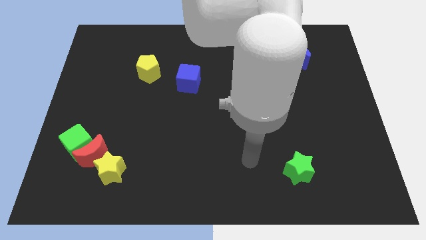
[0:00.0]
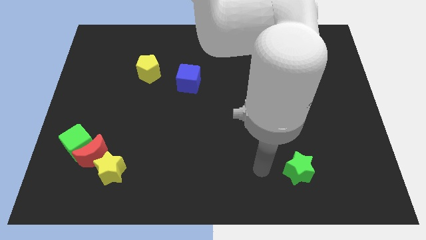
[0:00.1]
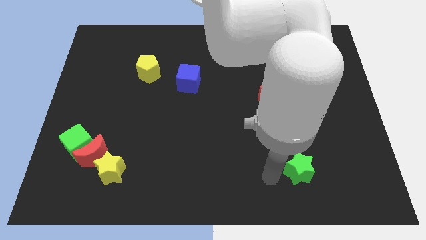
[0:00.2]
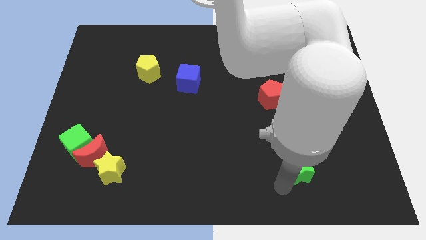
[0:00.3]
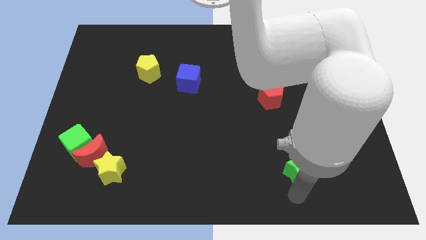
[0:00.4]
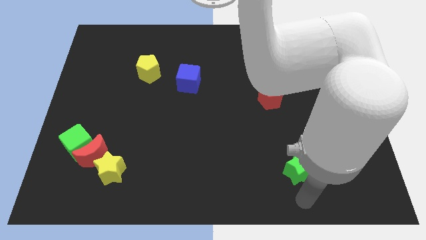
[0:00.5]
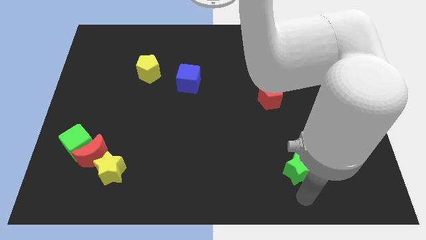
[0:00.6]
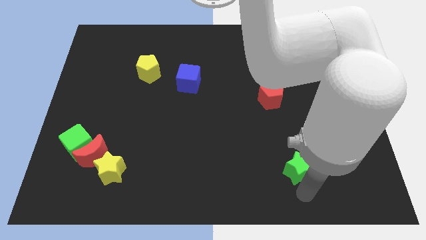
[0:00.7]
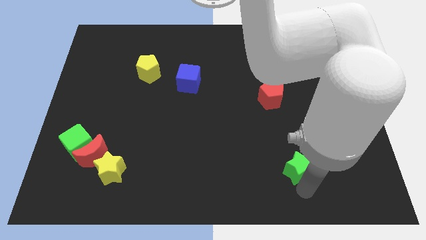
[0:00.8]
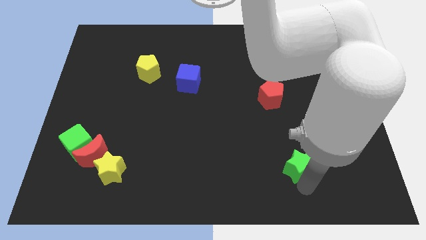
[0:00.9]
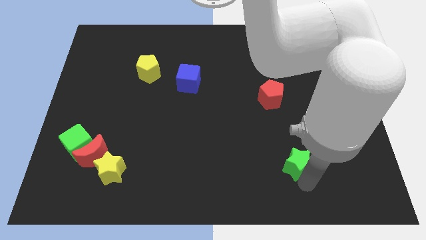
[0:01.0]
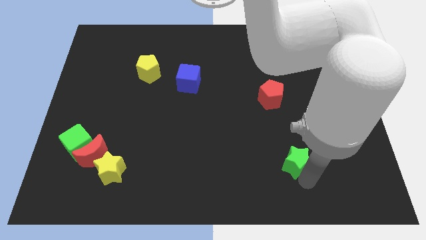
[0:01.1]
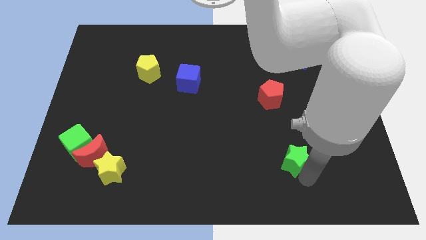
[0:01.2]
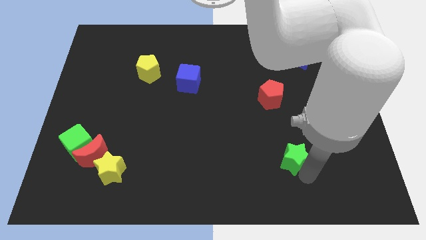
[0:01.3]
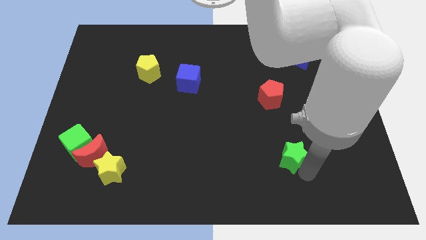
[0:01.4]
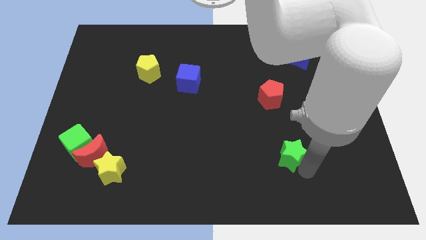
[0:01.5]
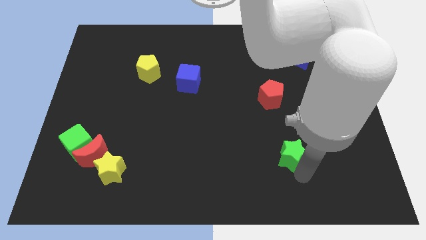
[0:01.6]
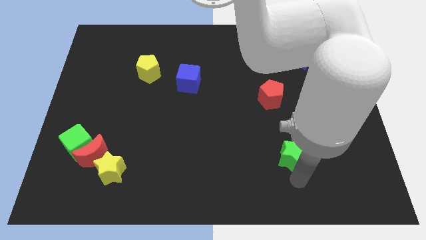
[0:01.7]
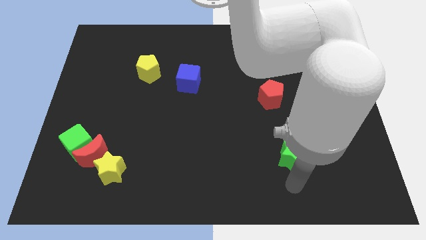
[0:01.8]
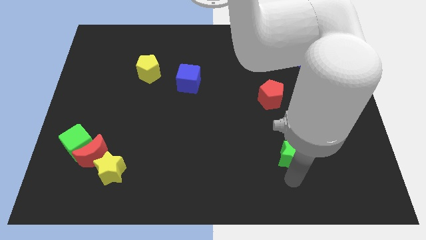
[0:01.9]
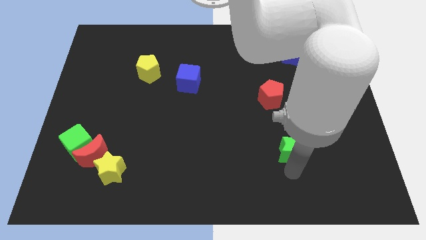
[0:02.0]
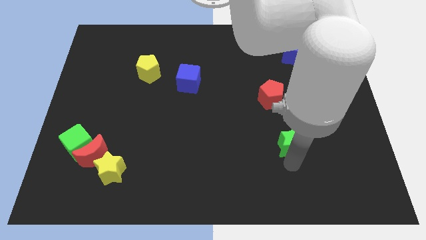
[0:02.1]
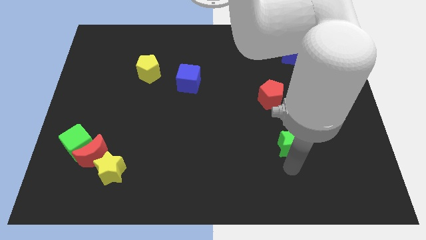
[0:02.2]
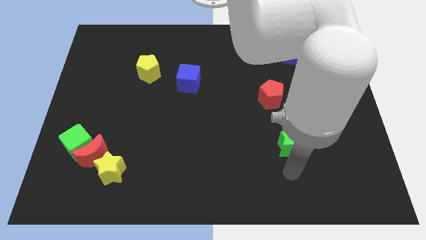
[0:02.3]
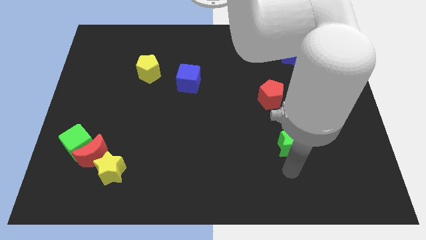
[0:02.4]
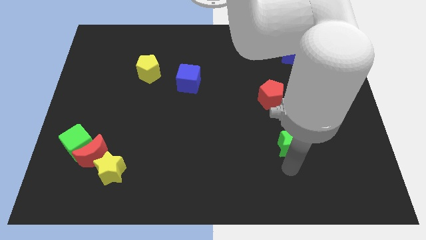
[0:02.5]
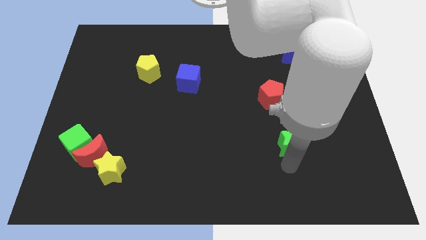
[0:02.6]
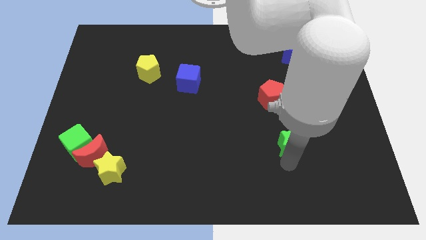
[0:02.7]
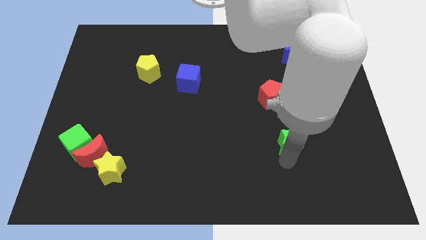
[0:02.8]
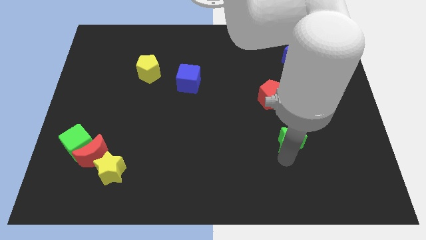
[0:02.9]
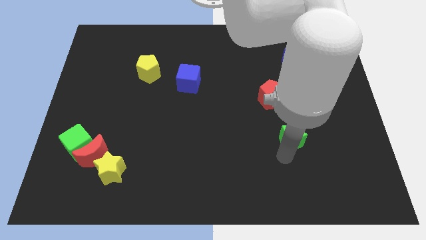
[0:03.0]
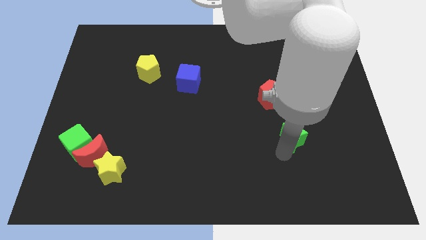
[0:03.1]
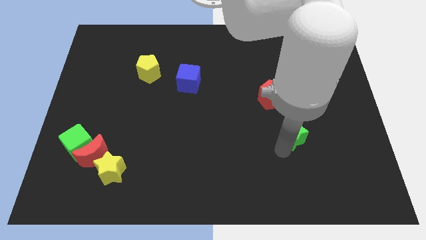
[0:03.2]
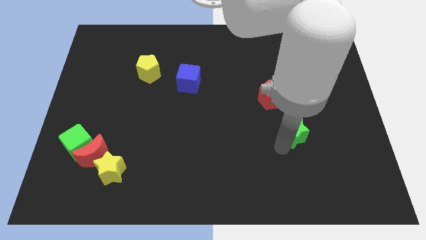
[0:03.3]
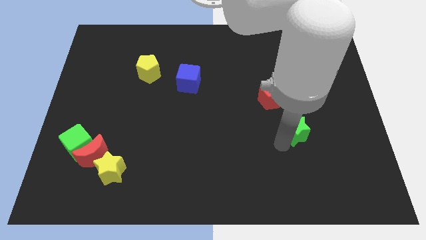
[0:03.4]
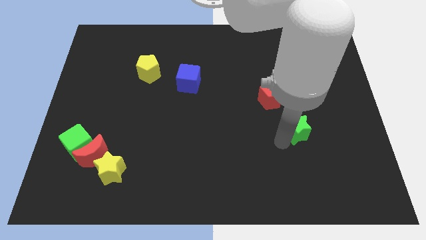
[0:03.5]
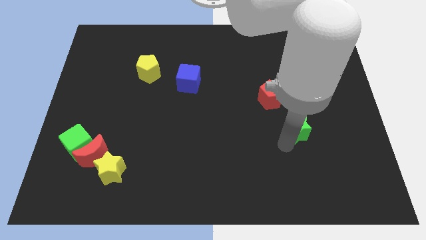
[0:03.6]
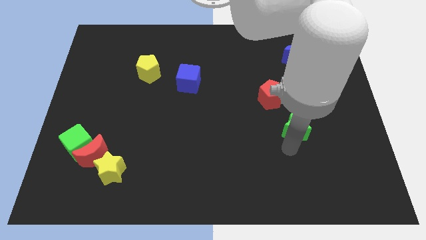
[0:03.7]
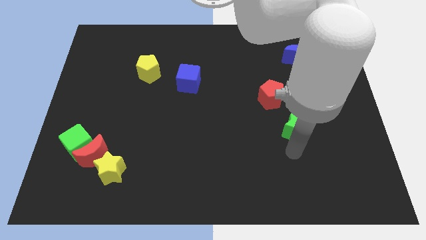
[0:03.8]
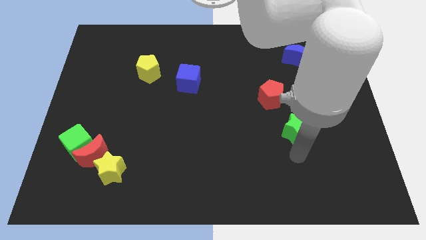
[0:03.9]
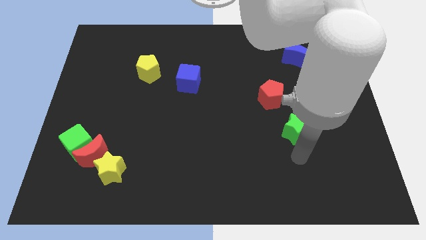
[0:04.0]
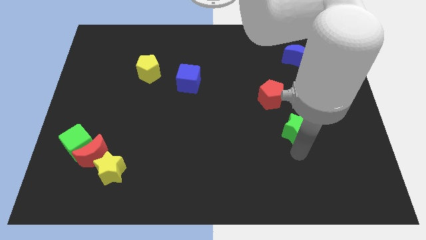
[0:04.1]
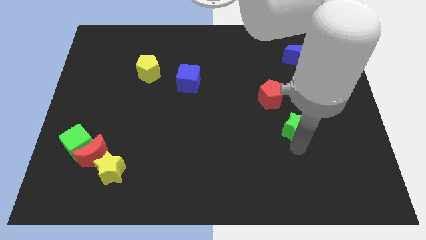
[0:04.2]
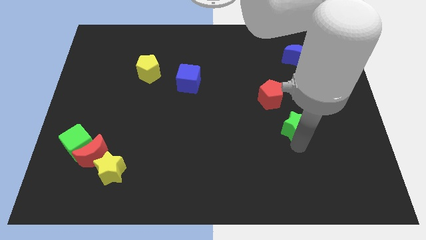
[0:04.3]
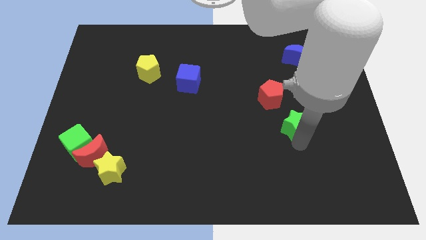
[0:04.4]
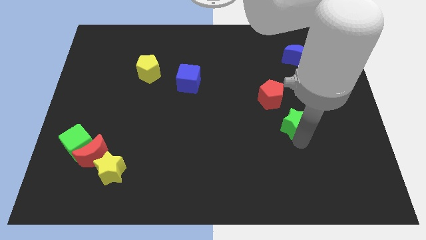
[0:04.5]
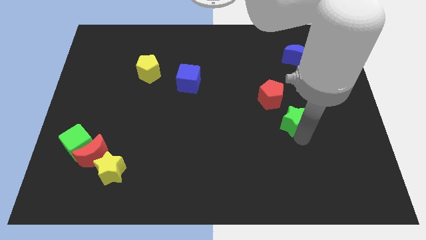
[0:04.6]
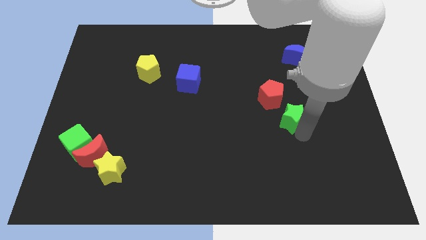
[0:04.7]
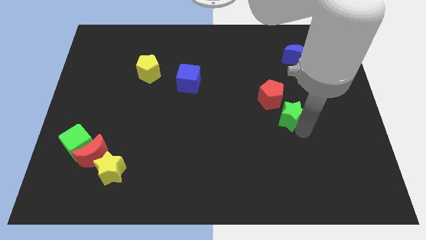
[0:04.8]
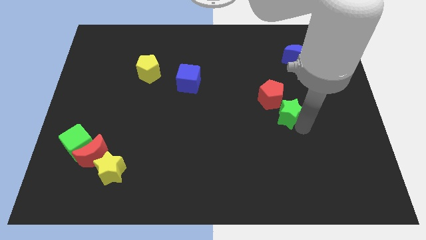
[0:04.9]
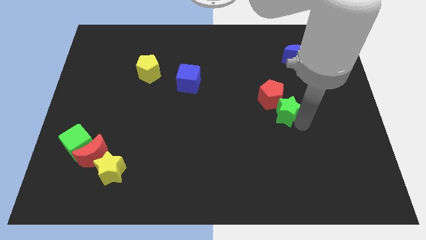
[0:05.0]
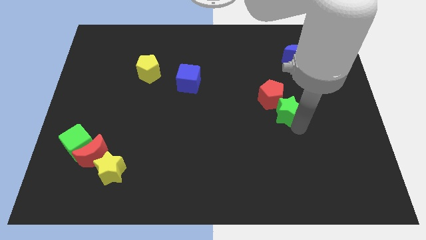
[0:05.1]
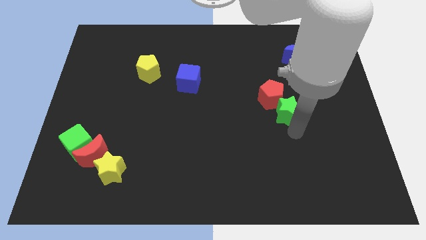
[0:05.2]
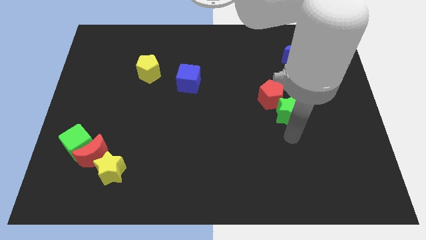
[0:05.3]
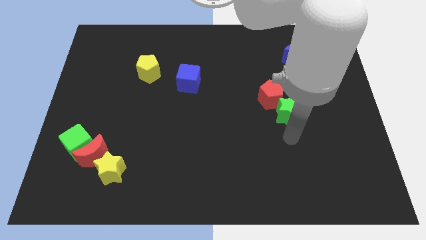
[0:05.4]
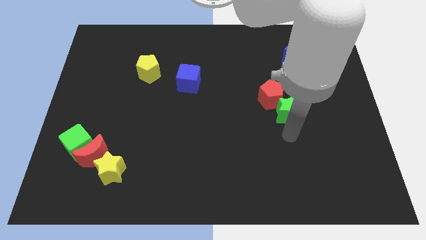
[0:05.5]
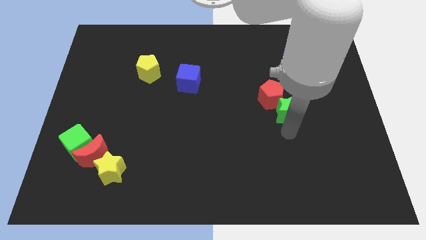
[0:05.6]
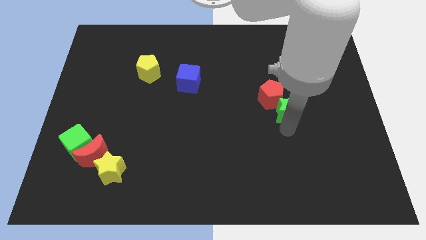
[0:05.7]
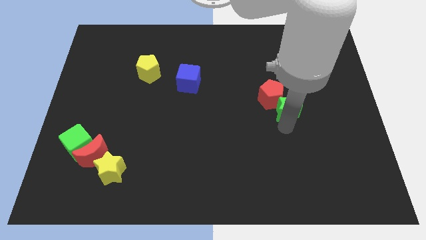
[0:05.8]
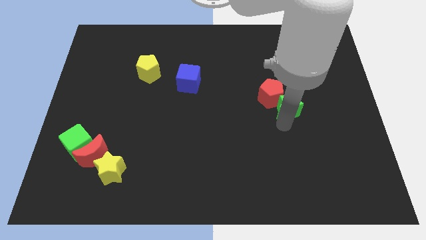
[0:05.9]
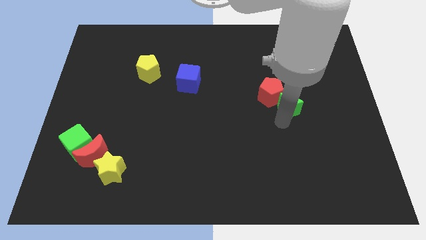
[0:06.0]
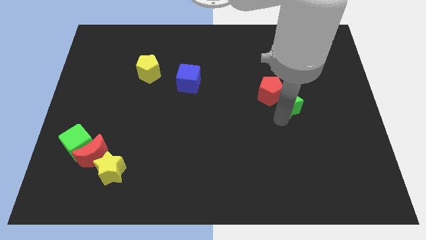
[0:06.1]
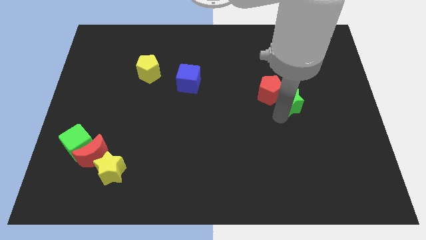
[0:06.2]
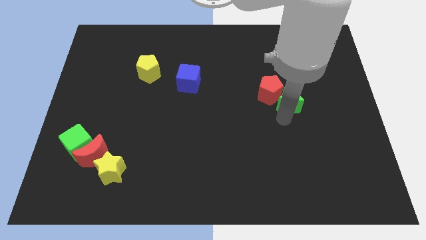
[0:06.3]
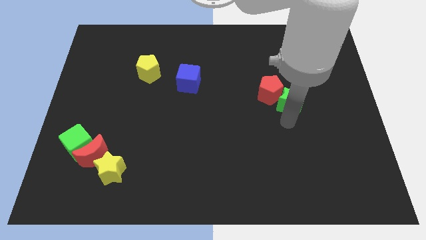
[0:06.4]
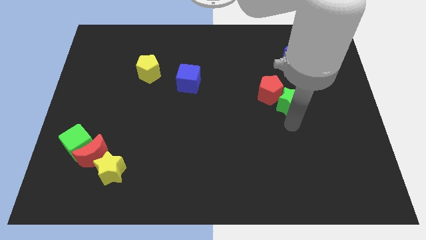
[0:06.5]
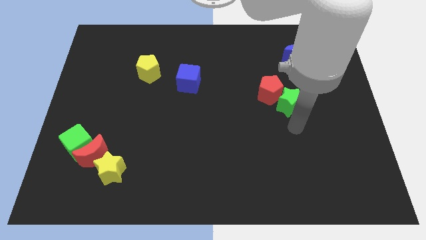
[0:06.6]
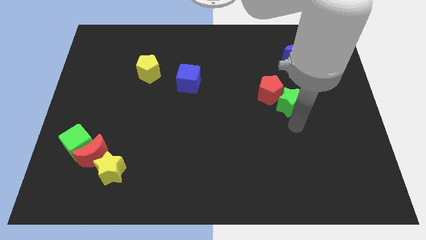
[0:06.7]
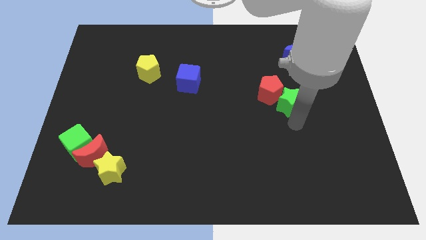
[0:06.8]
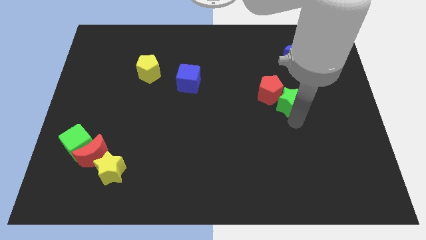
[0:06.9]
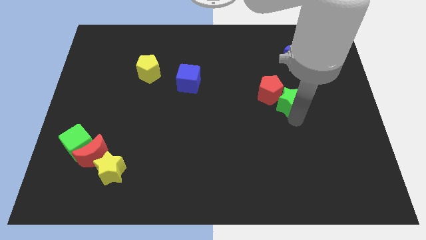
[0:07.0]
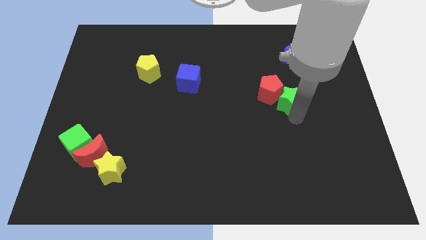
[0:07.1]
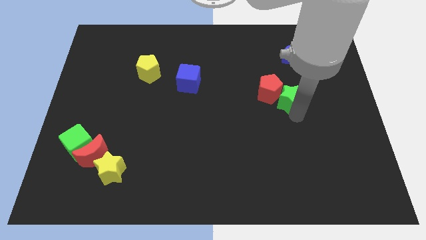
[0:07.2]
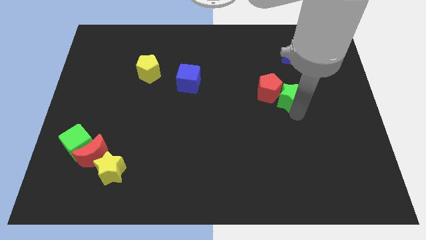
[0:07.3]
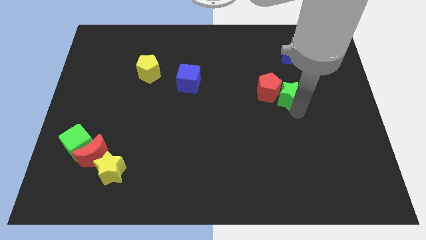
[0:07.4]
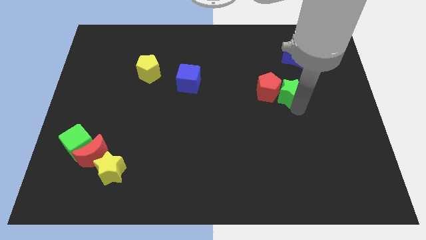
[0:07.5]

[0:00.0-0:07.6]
slide the green star upwards

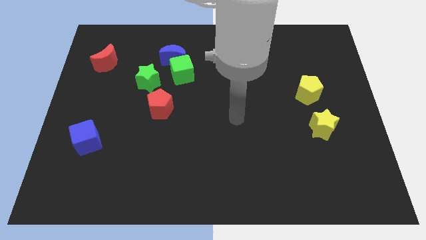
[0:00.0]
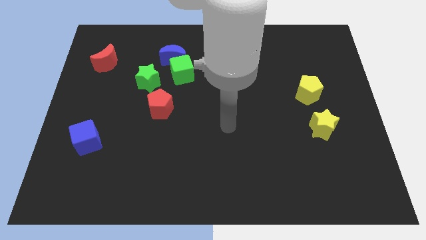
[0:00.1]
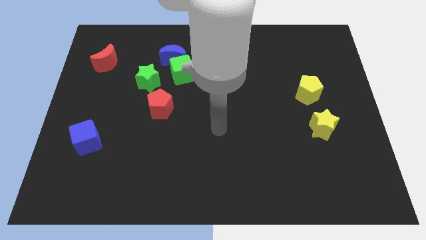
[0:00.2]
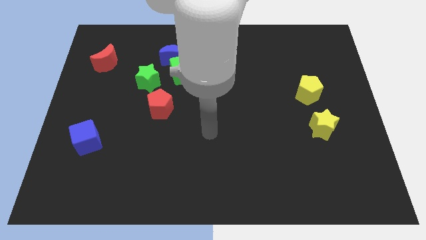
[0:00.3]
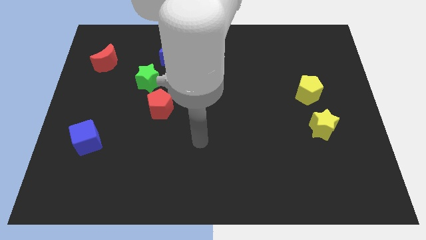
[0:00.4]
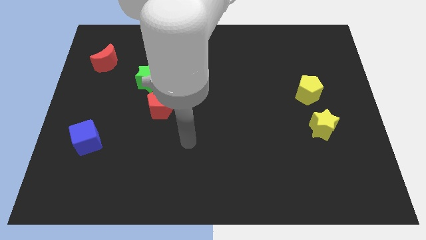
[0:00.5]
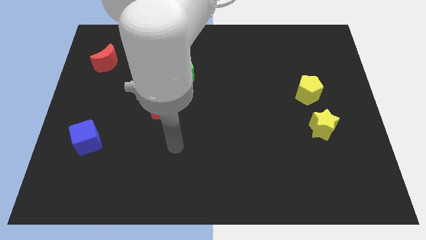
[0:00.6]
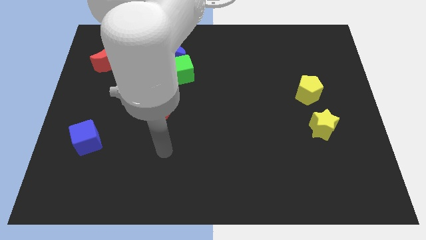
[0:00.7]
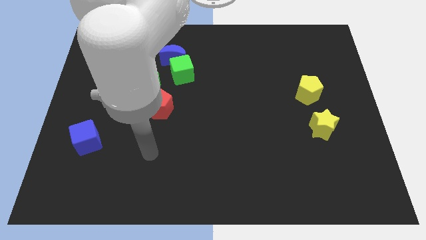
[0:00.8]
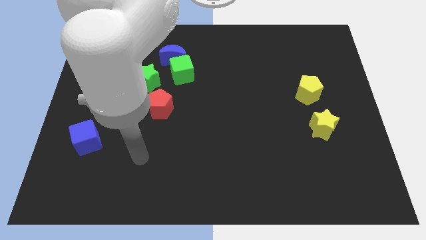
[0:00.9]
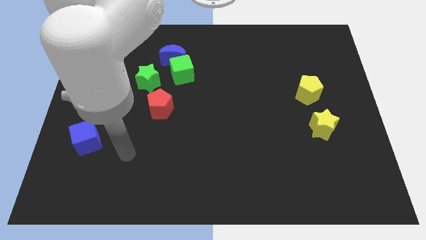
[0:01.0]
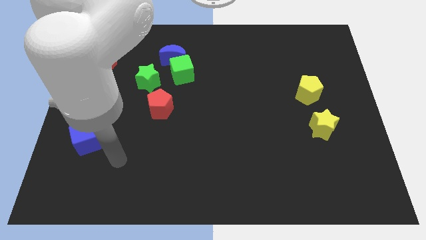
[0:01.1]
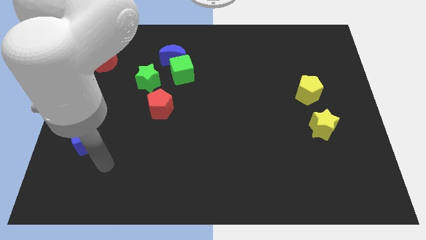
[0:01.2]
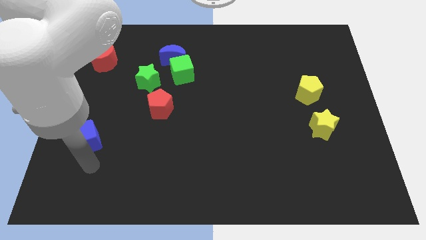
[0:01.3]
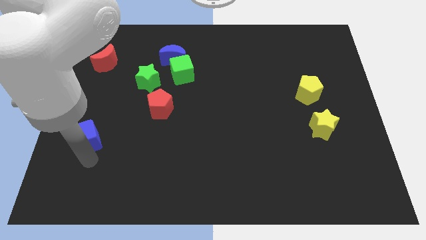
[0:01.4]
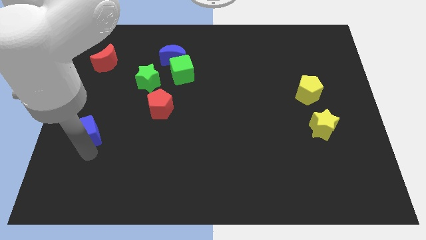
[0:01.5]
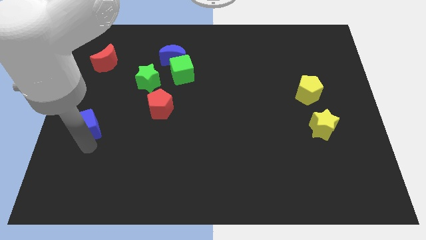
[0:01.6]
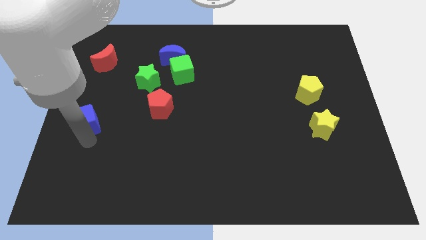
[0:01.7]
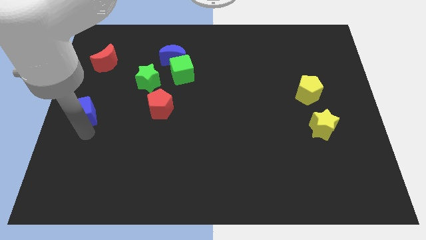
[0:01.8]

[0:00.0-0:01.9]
move the blue cube up slightly
